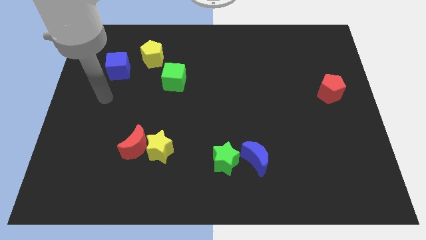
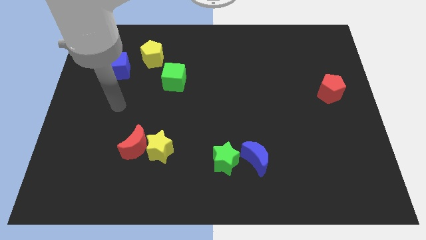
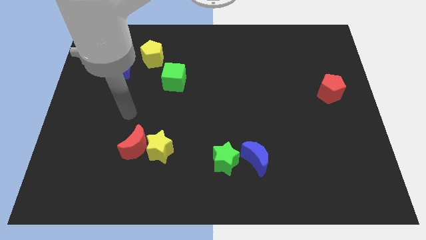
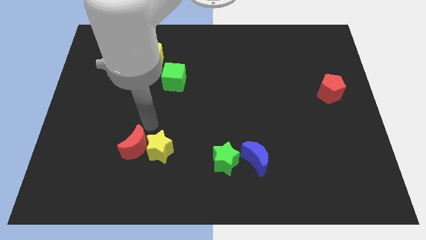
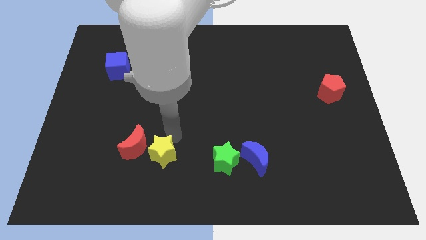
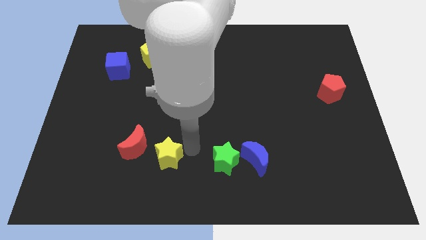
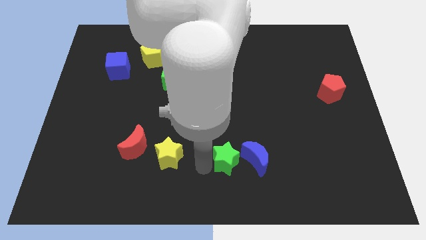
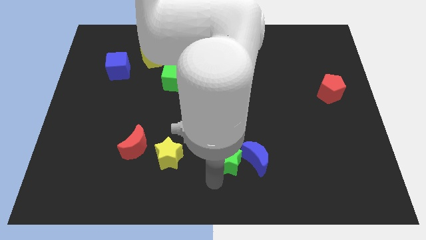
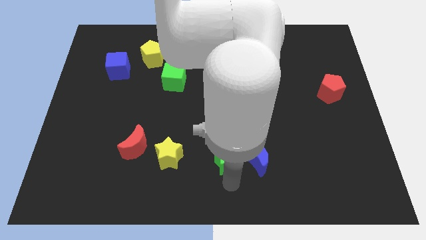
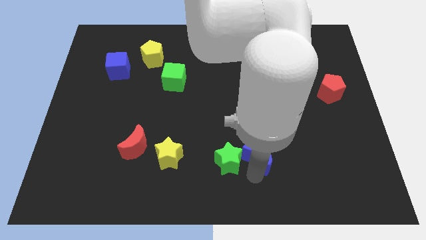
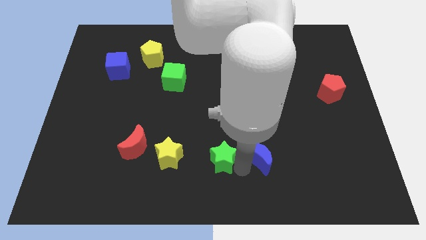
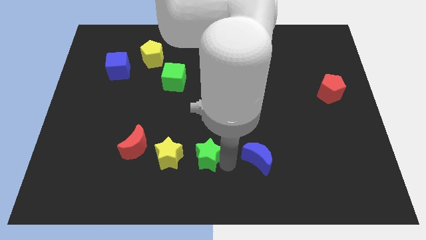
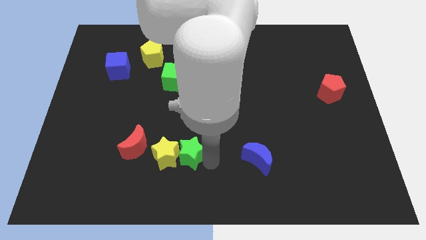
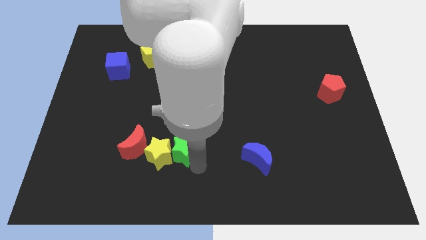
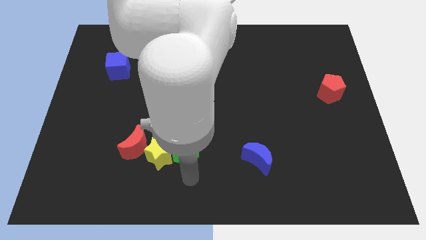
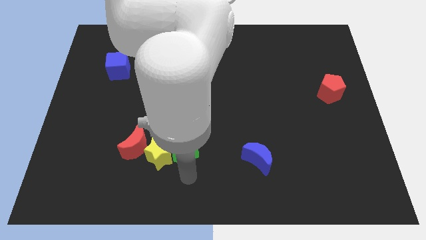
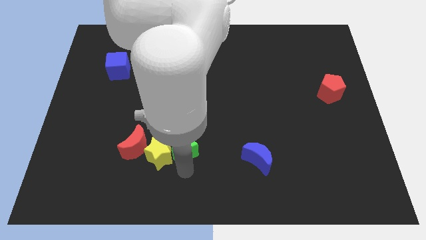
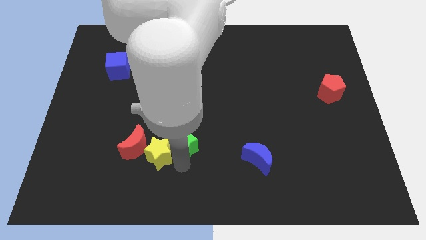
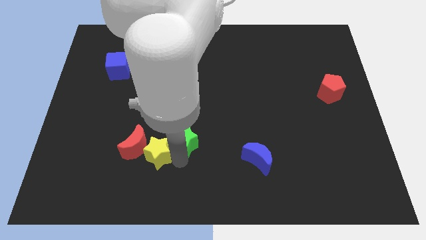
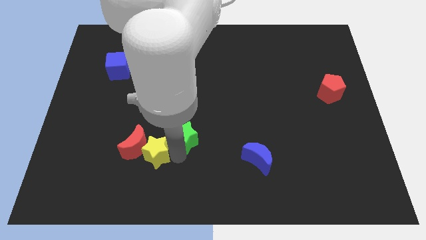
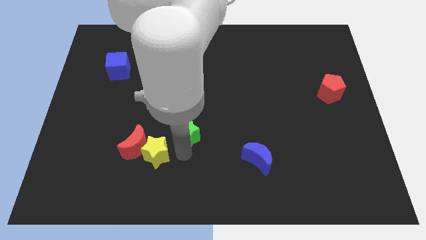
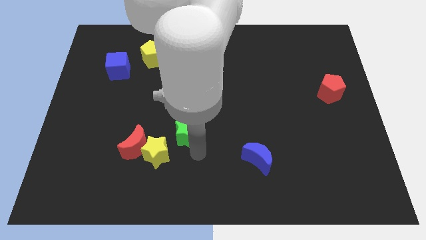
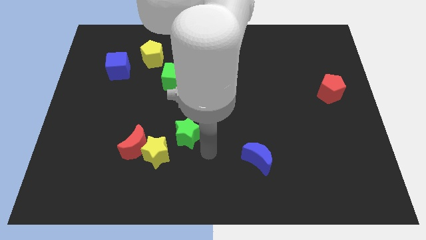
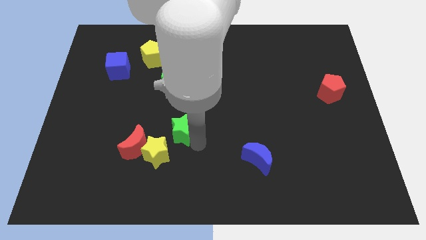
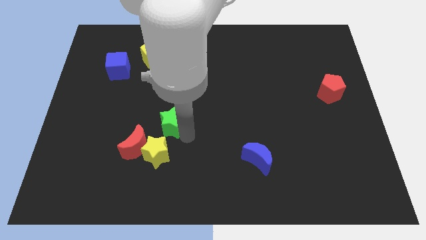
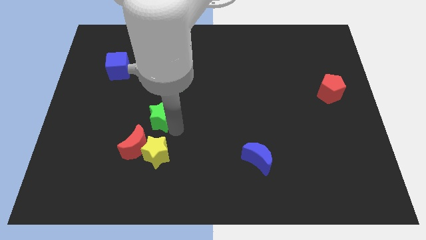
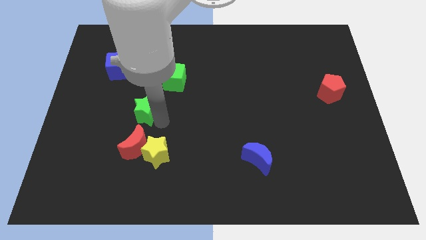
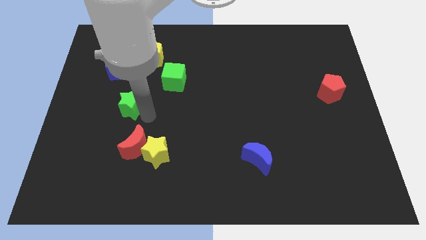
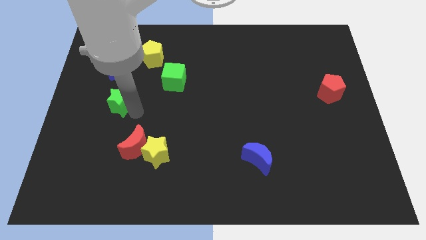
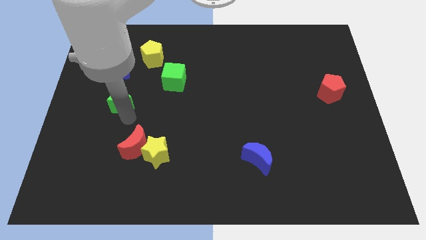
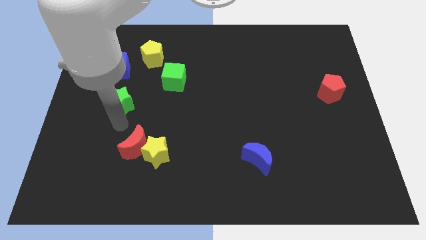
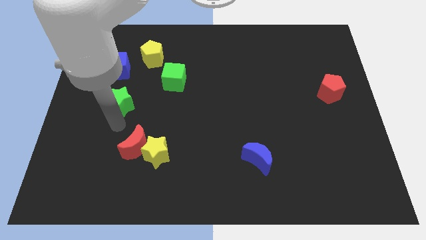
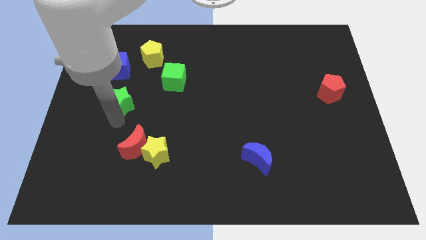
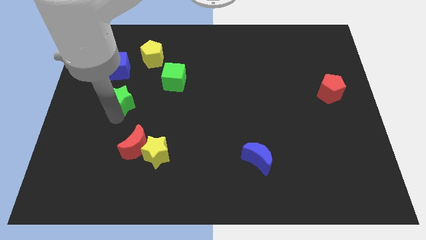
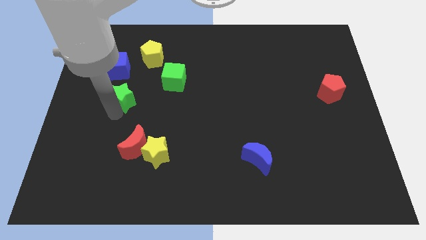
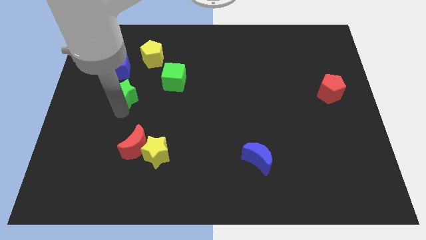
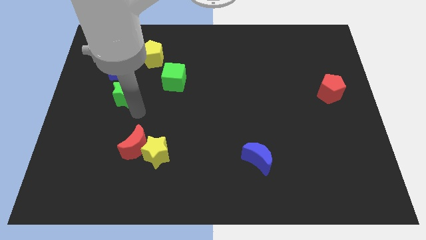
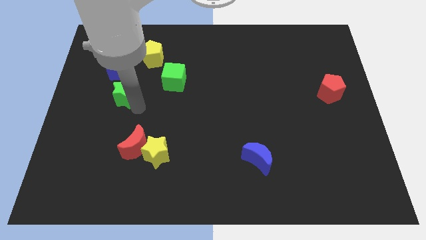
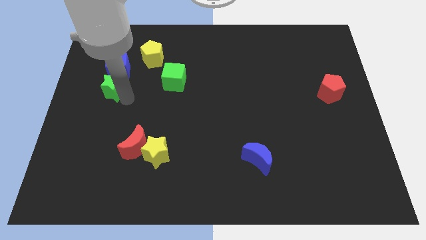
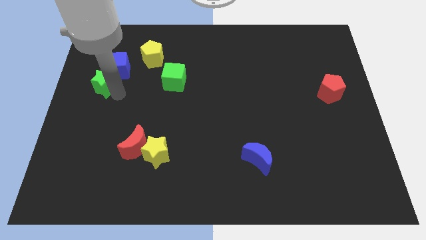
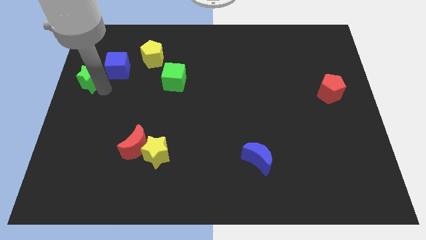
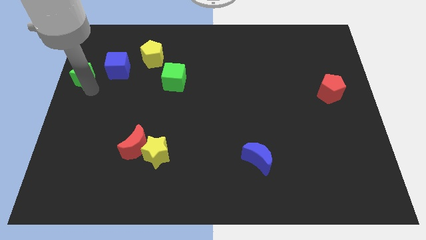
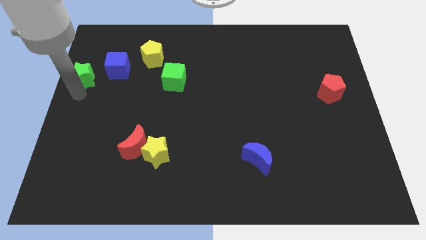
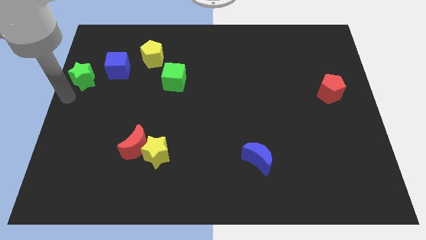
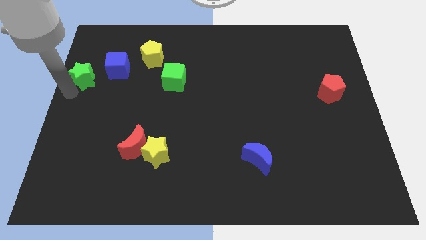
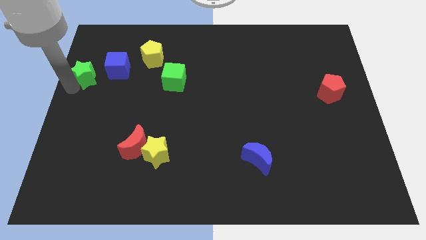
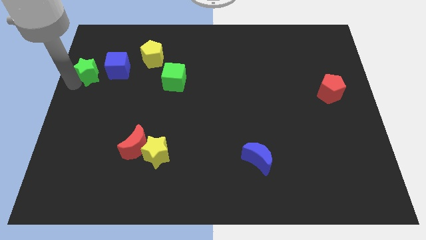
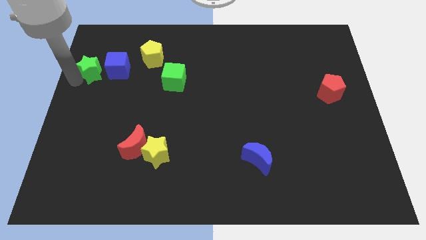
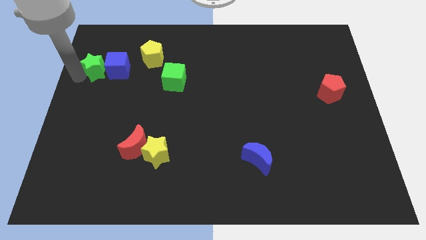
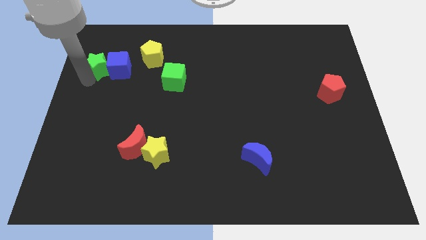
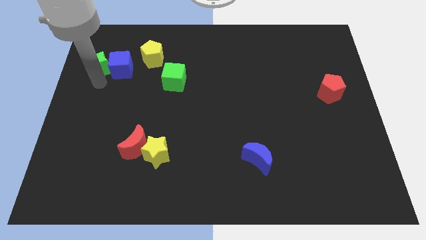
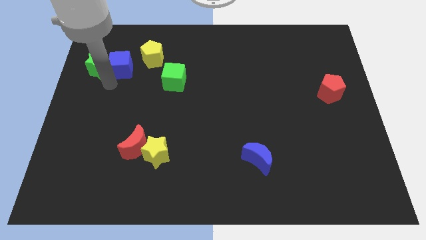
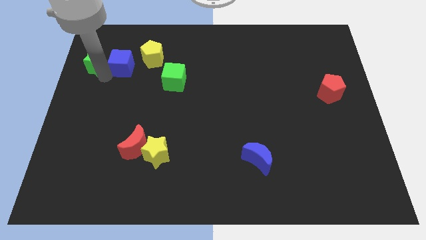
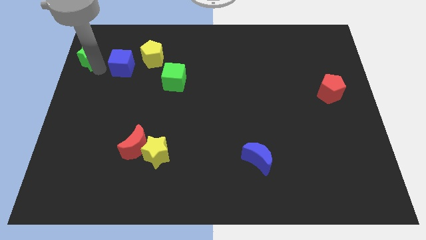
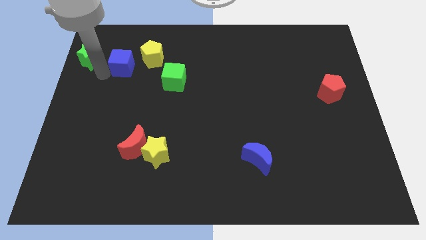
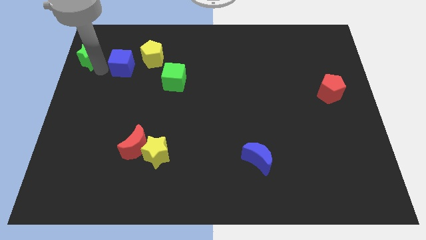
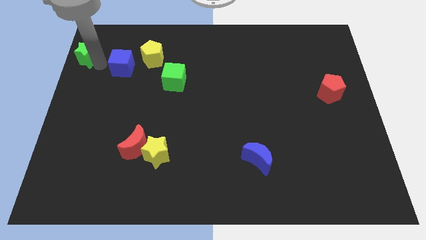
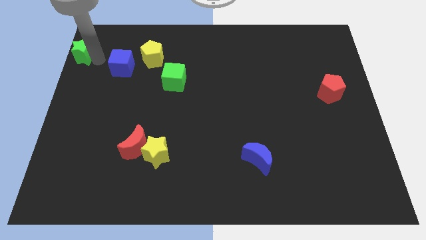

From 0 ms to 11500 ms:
put the green star to the top left of the board
